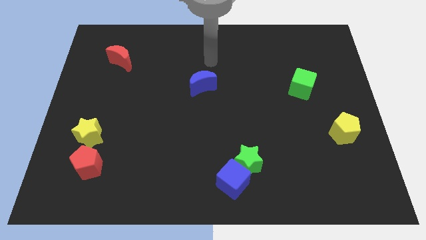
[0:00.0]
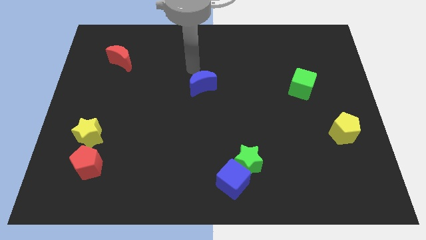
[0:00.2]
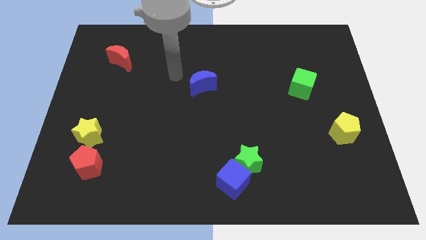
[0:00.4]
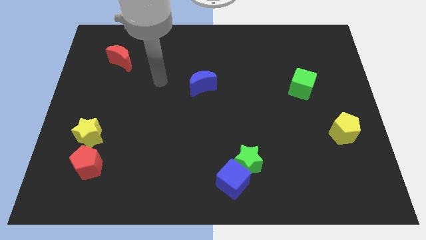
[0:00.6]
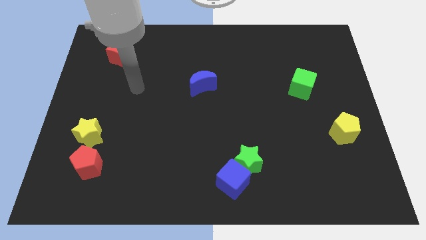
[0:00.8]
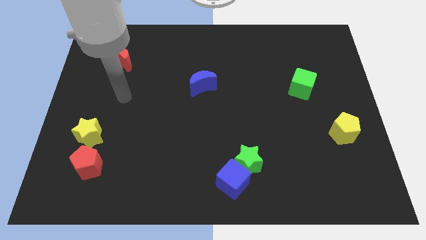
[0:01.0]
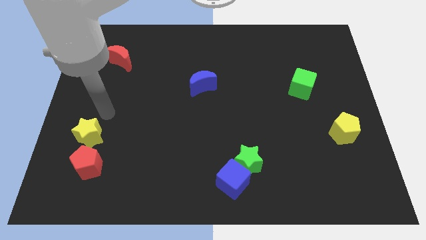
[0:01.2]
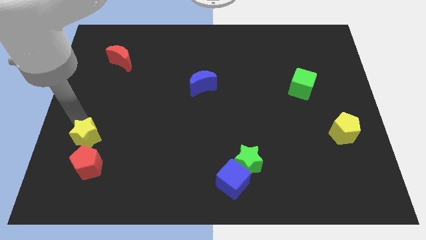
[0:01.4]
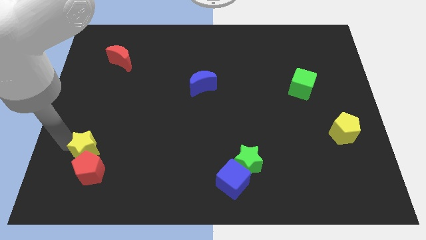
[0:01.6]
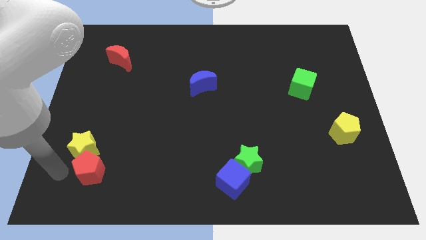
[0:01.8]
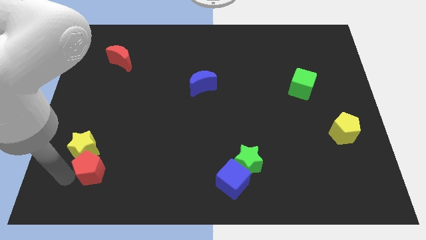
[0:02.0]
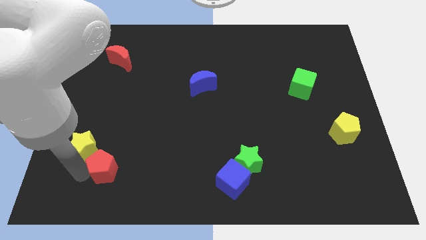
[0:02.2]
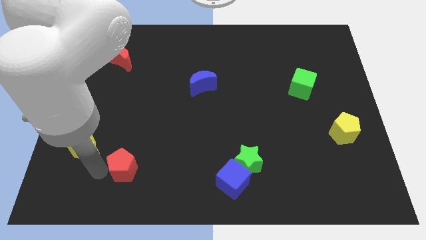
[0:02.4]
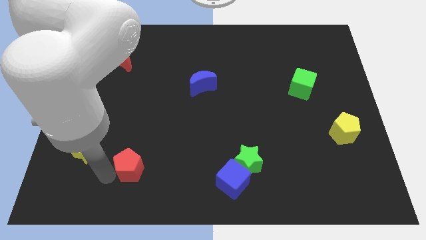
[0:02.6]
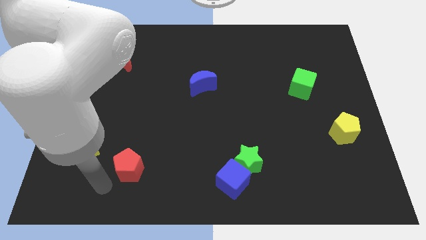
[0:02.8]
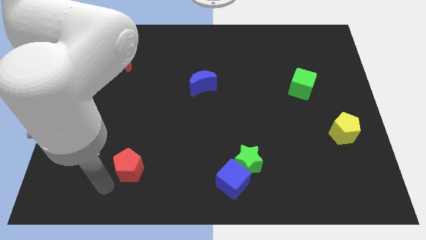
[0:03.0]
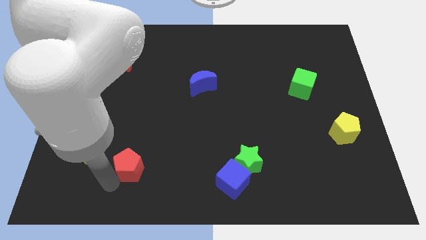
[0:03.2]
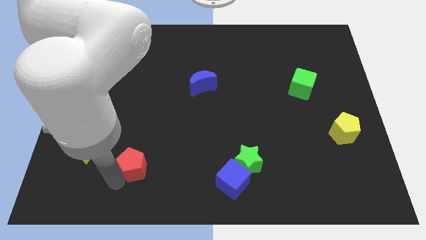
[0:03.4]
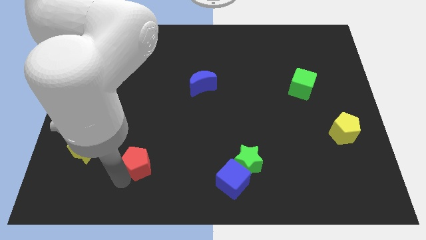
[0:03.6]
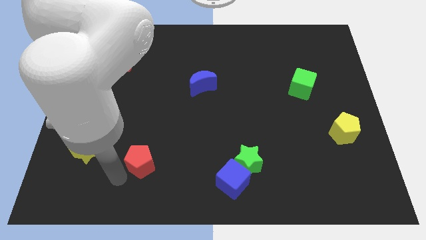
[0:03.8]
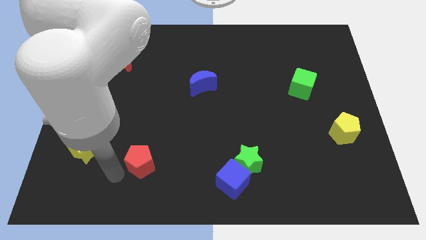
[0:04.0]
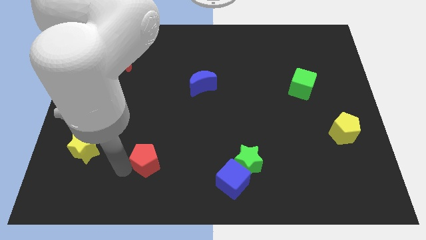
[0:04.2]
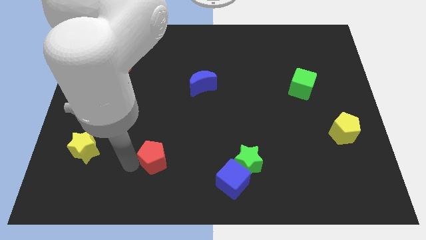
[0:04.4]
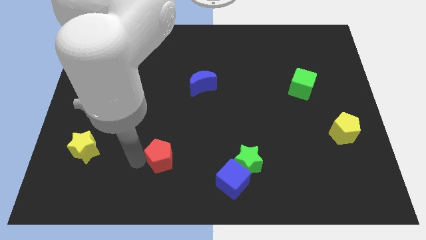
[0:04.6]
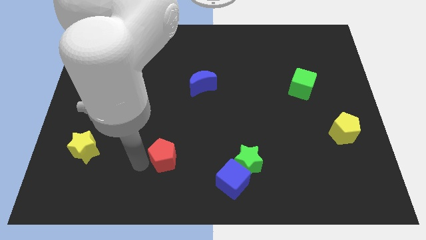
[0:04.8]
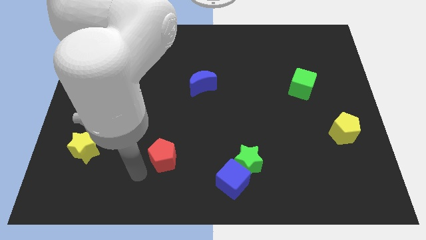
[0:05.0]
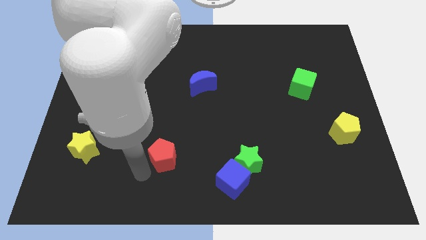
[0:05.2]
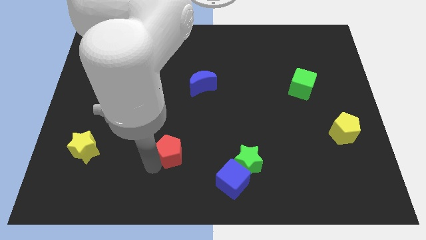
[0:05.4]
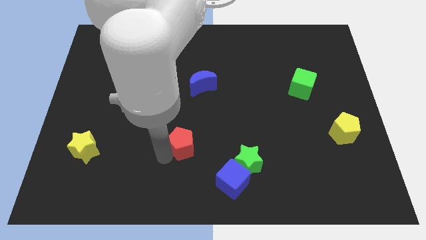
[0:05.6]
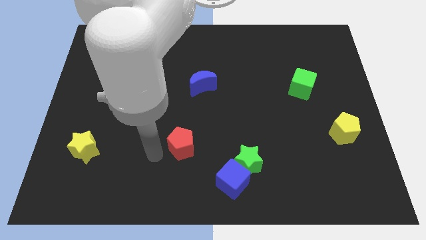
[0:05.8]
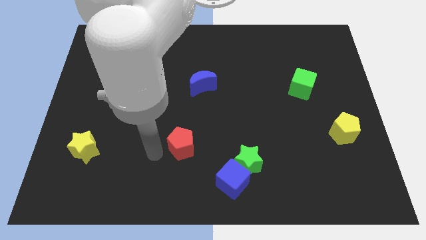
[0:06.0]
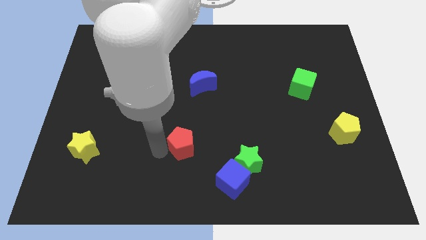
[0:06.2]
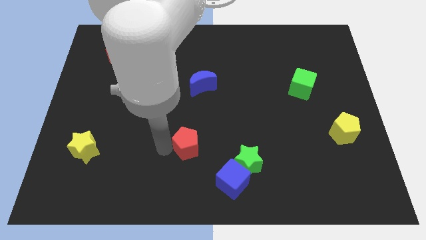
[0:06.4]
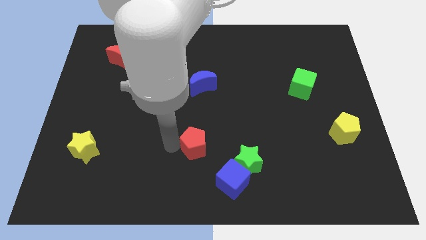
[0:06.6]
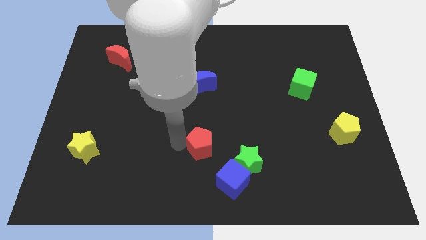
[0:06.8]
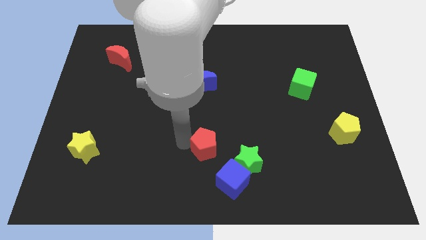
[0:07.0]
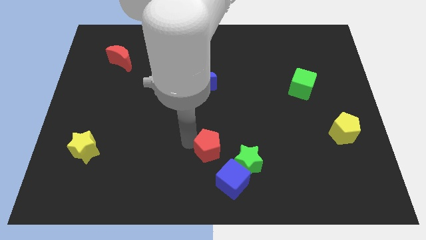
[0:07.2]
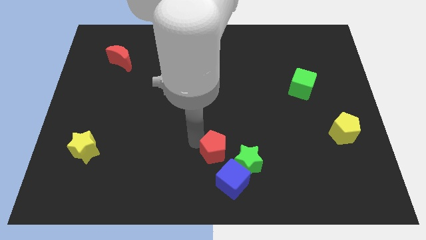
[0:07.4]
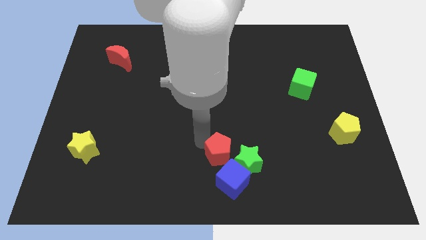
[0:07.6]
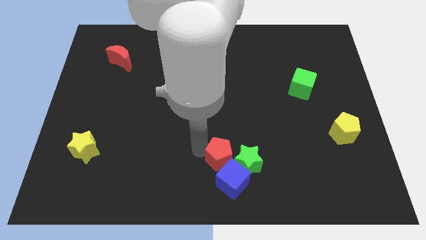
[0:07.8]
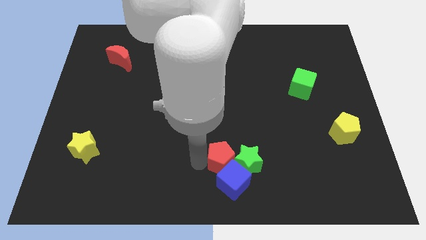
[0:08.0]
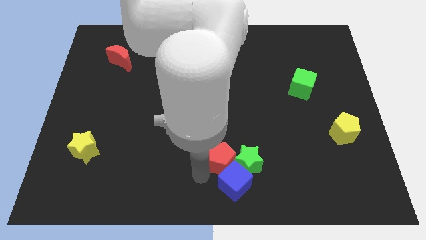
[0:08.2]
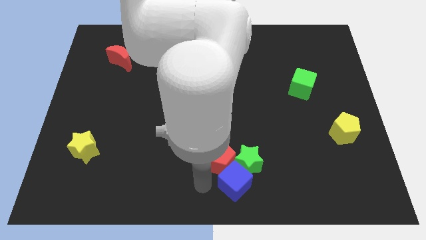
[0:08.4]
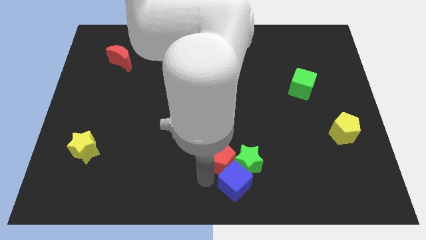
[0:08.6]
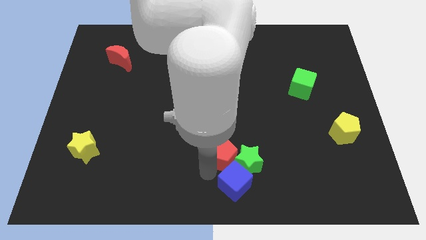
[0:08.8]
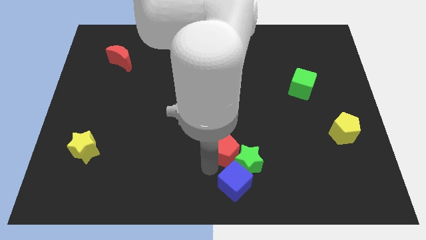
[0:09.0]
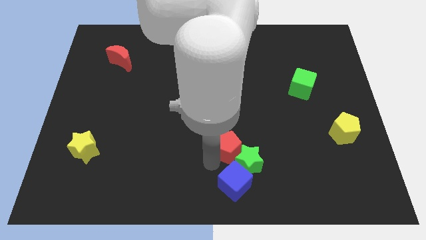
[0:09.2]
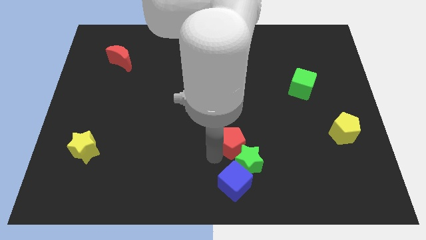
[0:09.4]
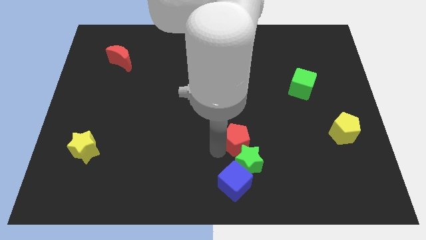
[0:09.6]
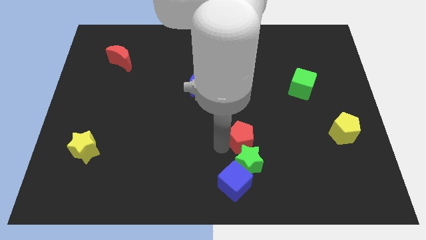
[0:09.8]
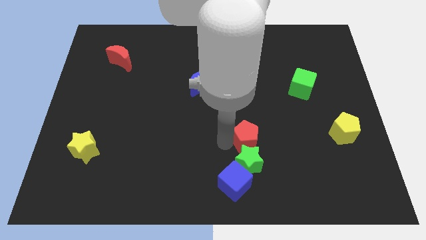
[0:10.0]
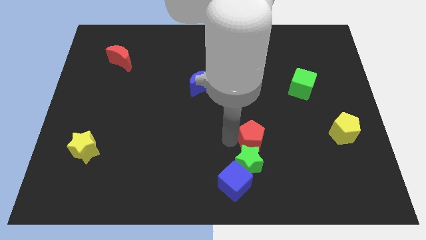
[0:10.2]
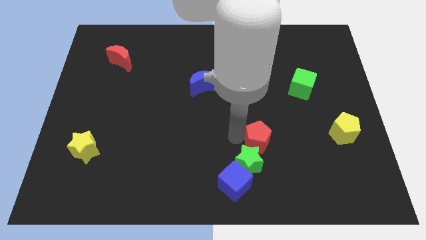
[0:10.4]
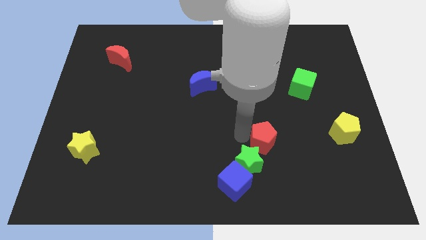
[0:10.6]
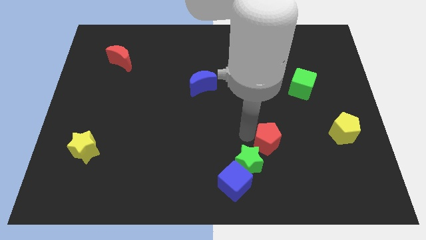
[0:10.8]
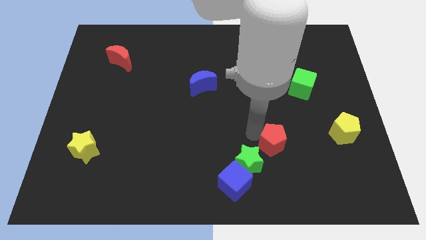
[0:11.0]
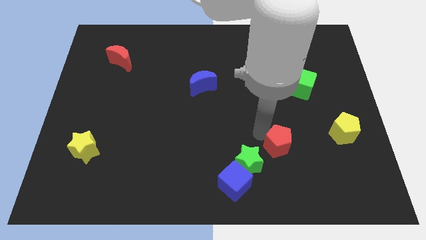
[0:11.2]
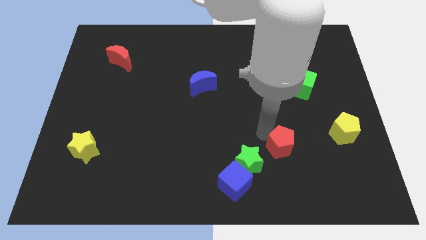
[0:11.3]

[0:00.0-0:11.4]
slide the red pentagon right of the green star

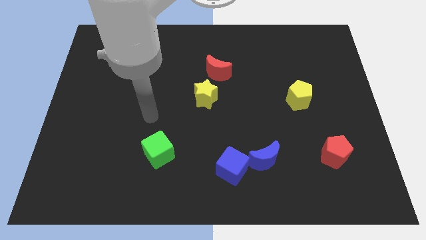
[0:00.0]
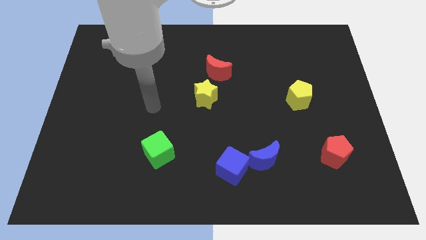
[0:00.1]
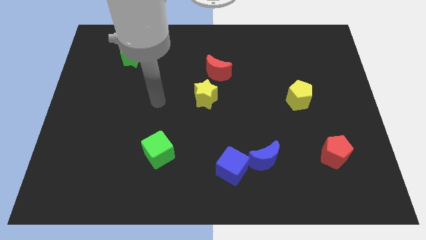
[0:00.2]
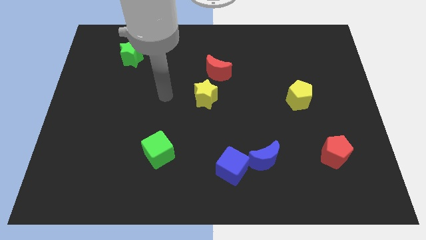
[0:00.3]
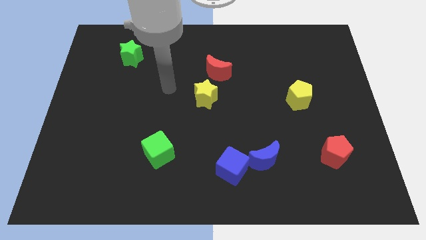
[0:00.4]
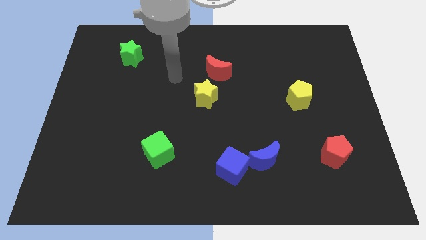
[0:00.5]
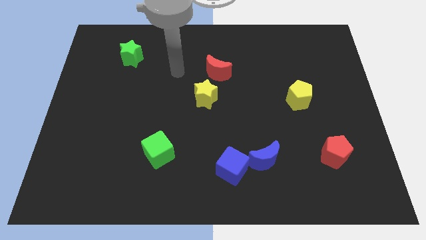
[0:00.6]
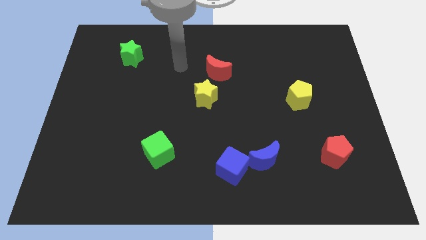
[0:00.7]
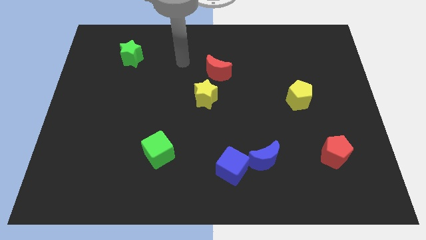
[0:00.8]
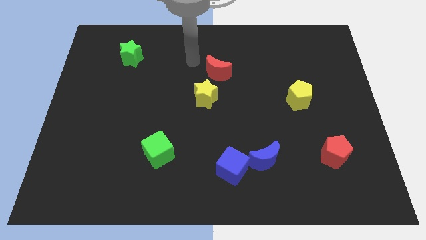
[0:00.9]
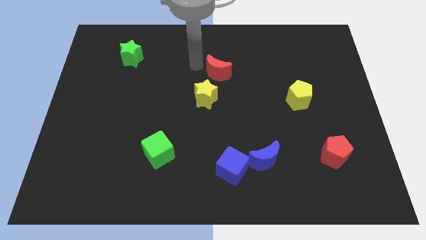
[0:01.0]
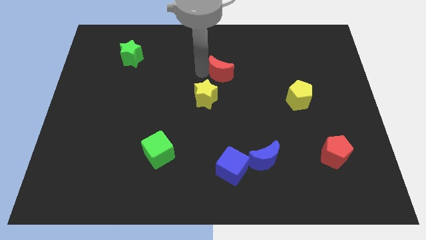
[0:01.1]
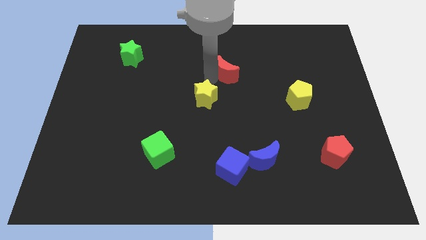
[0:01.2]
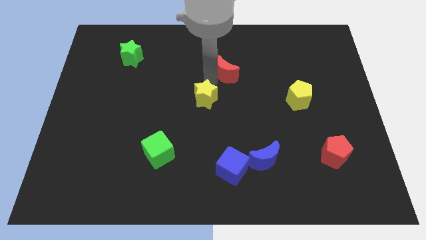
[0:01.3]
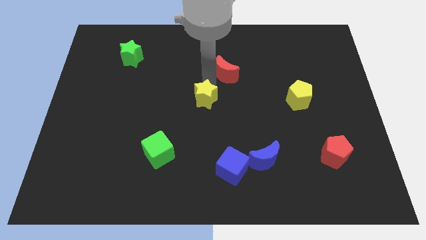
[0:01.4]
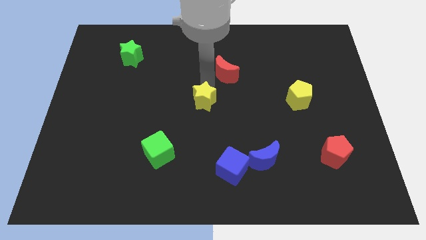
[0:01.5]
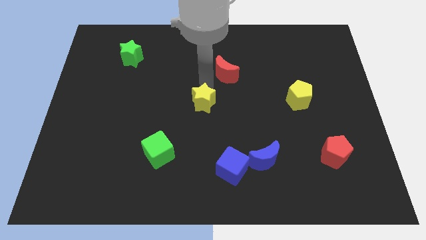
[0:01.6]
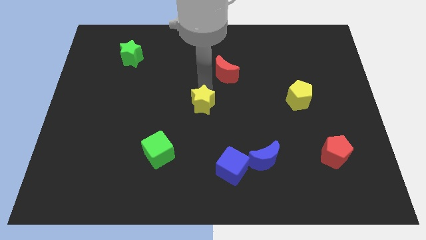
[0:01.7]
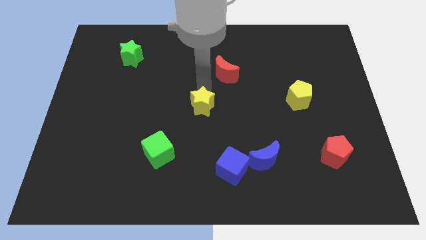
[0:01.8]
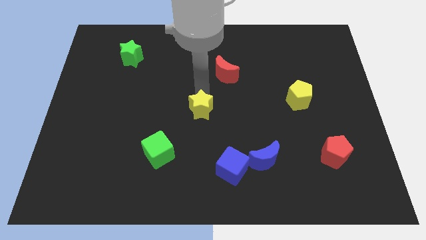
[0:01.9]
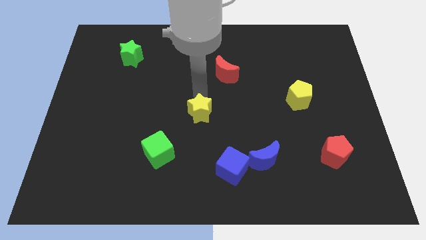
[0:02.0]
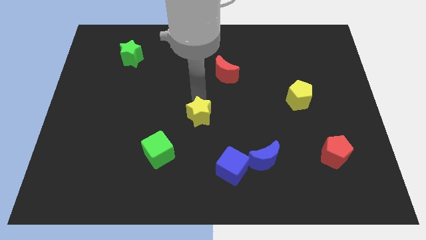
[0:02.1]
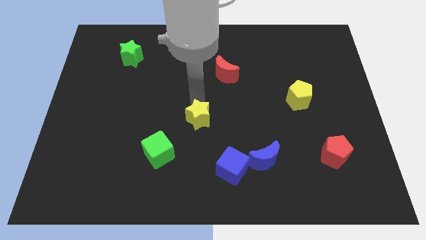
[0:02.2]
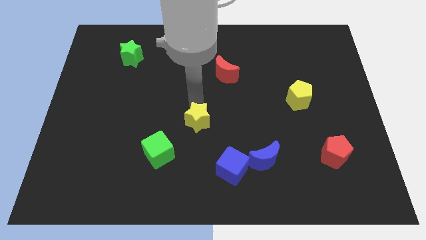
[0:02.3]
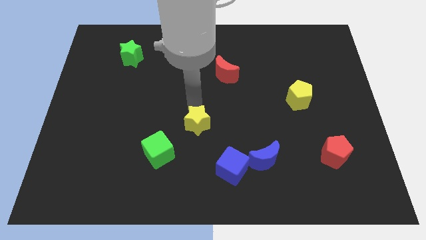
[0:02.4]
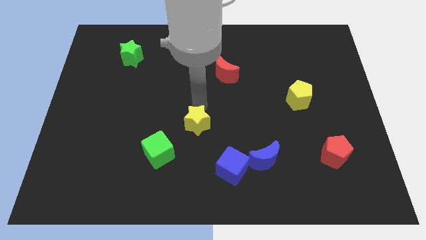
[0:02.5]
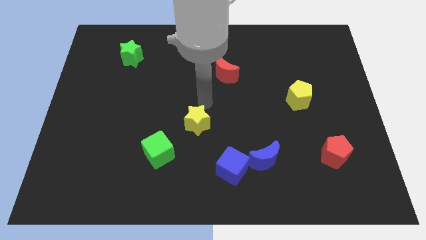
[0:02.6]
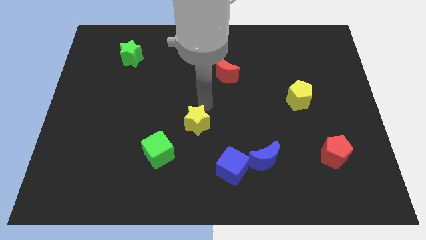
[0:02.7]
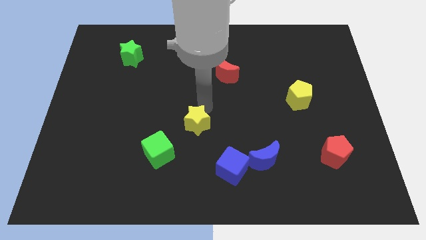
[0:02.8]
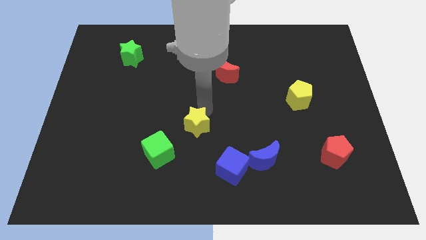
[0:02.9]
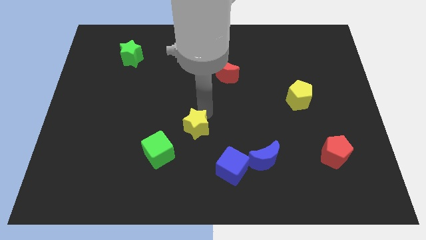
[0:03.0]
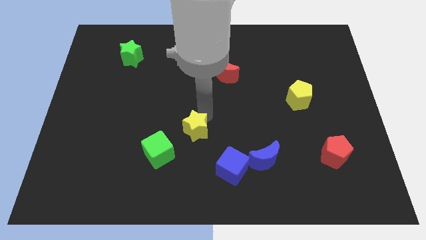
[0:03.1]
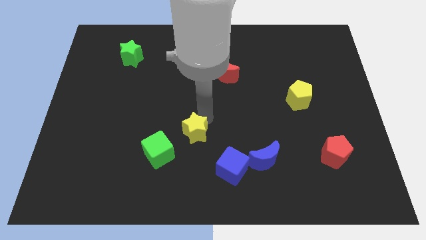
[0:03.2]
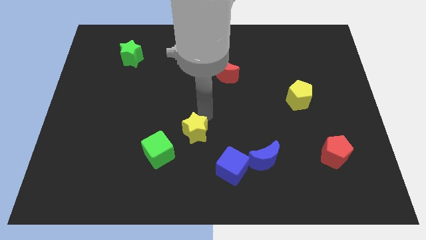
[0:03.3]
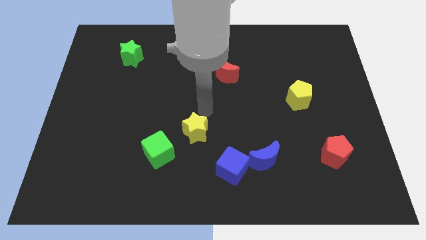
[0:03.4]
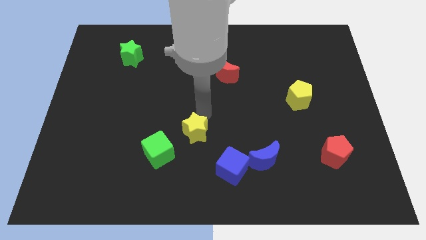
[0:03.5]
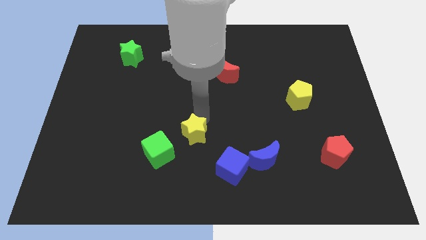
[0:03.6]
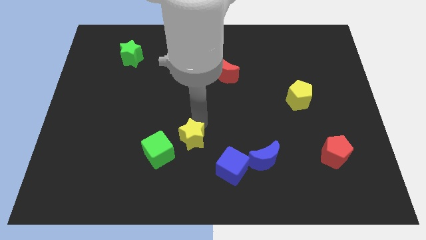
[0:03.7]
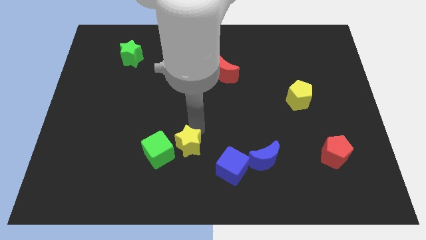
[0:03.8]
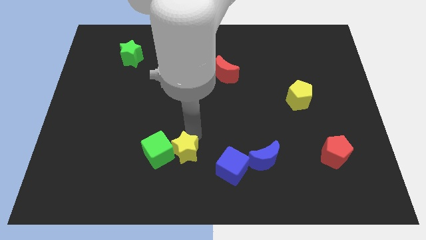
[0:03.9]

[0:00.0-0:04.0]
slide the yellow star to the left of the blue cube
